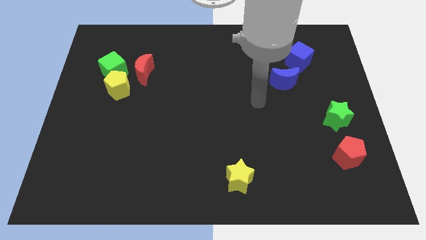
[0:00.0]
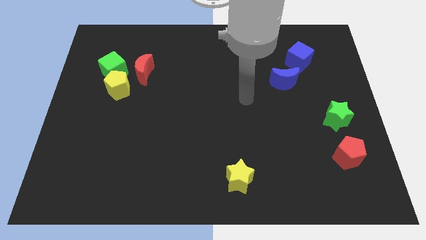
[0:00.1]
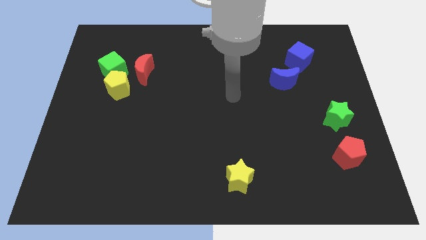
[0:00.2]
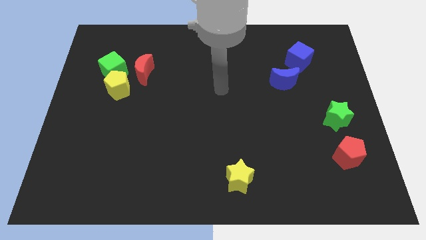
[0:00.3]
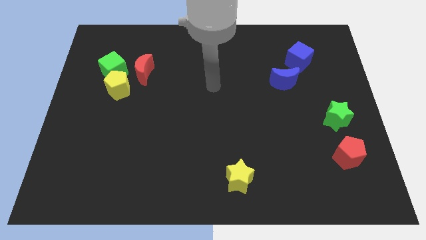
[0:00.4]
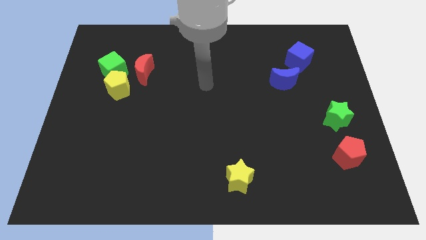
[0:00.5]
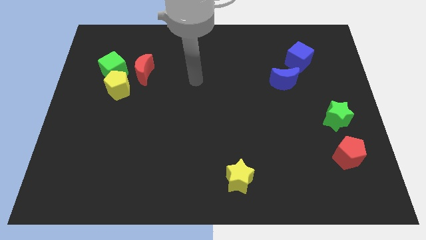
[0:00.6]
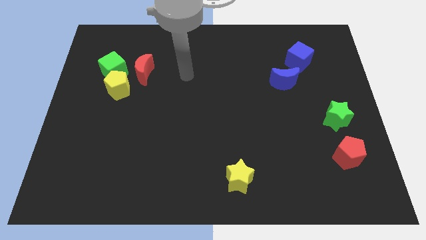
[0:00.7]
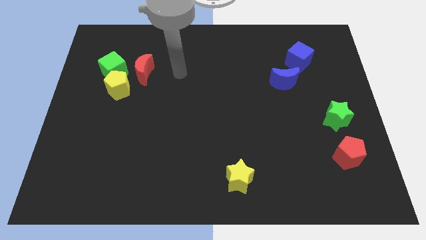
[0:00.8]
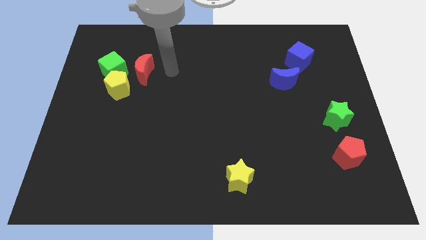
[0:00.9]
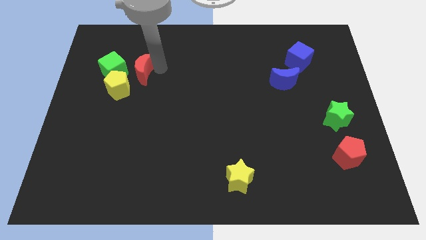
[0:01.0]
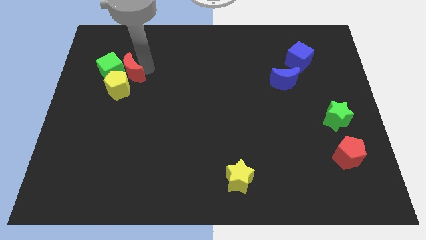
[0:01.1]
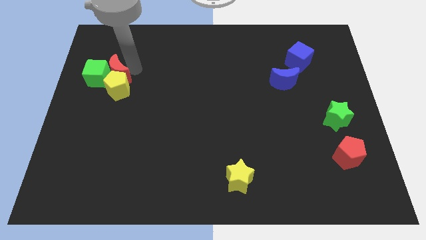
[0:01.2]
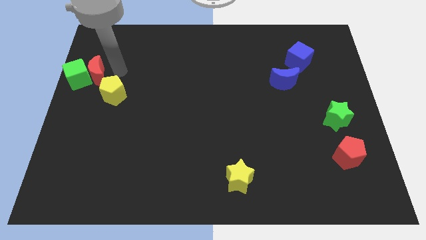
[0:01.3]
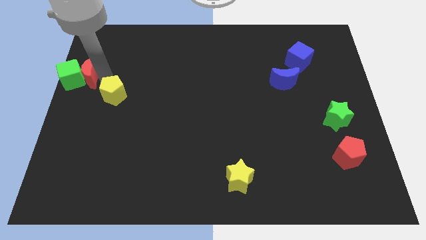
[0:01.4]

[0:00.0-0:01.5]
pull the yellow pentagon apart from the green cube and red moon

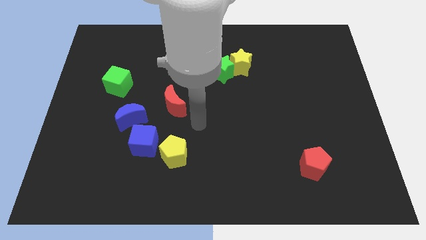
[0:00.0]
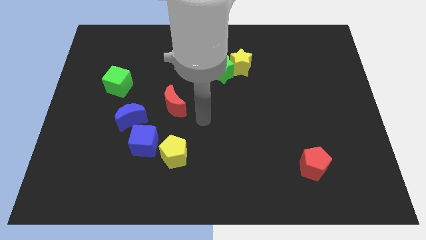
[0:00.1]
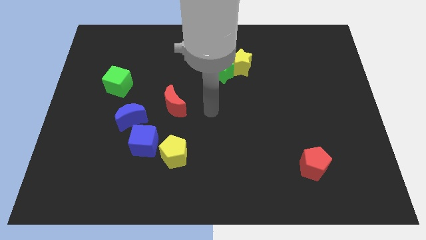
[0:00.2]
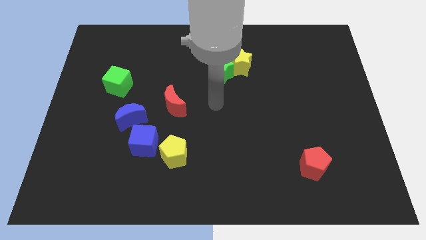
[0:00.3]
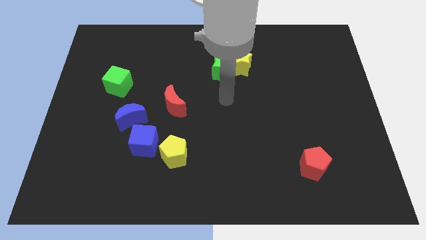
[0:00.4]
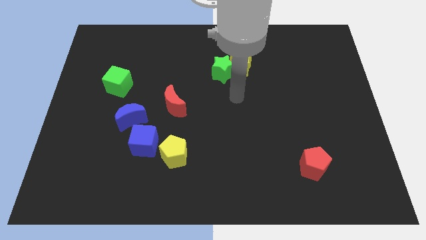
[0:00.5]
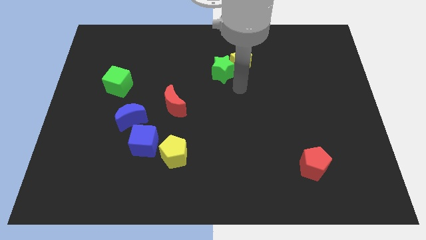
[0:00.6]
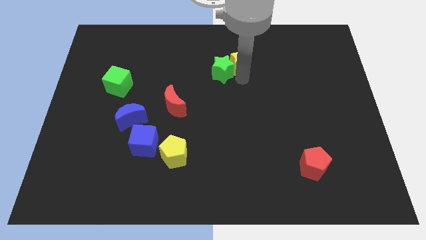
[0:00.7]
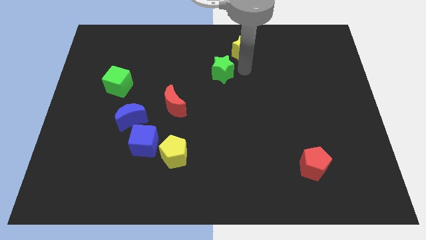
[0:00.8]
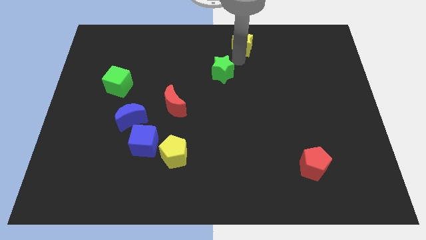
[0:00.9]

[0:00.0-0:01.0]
move the green star away from the yellow star

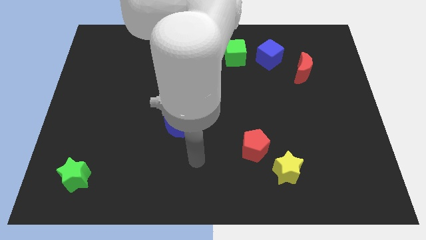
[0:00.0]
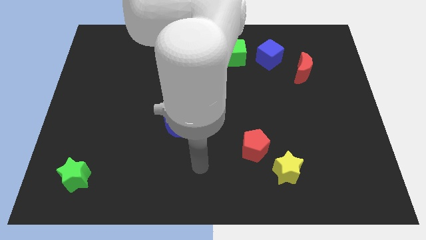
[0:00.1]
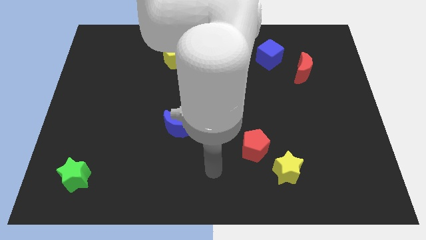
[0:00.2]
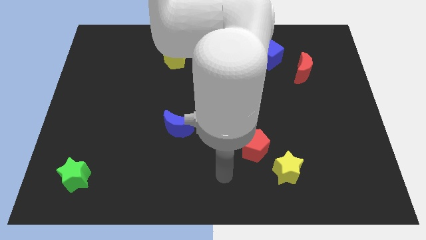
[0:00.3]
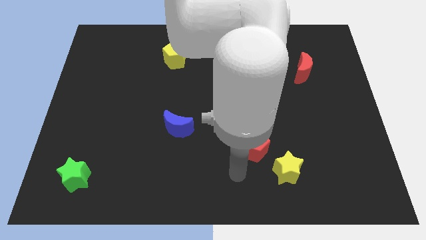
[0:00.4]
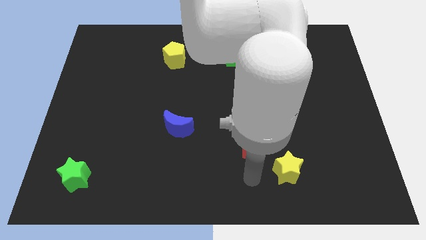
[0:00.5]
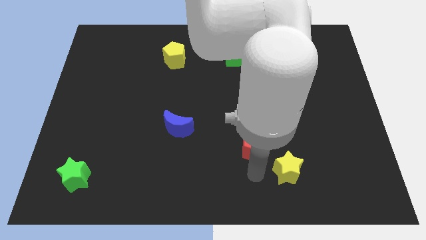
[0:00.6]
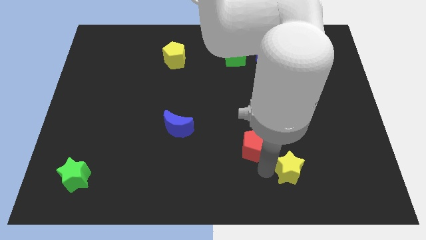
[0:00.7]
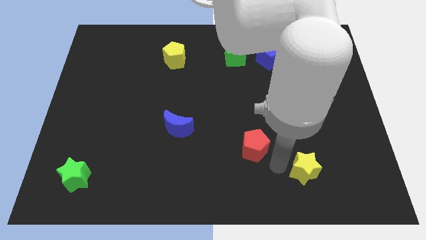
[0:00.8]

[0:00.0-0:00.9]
move the red pentagon away from the yellow star

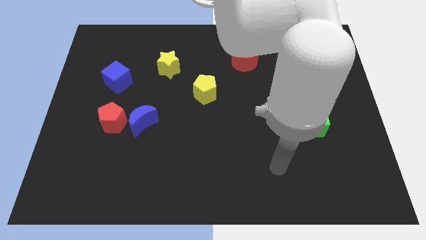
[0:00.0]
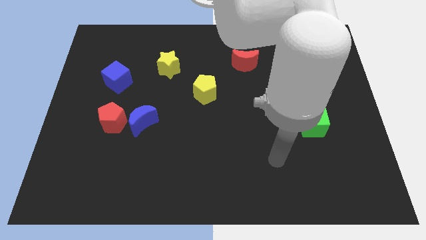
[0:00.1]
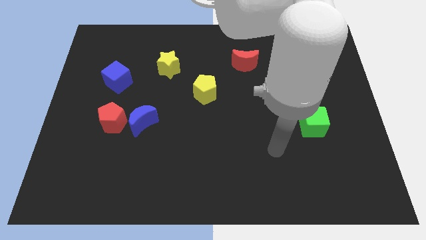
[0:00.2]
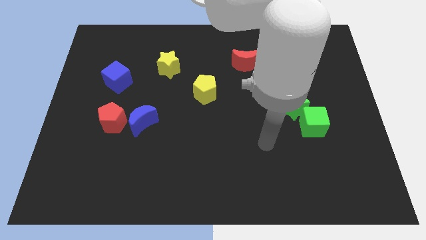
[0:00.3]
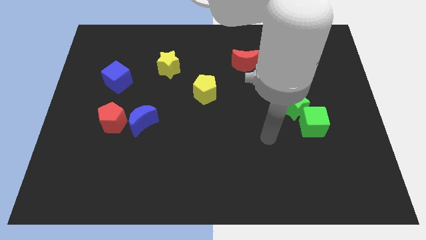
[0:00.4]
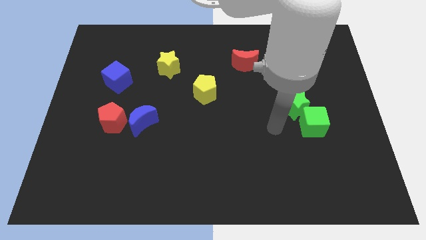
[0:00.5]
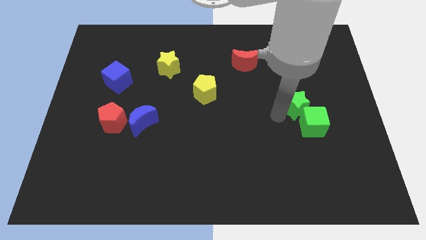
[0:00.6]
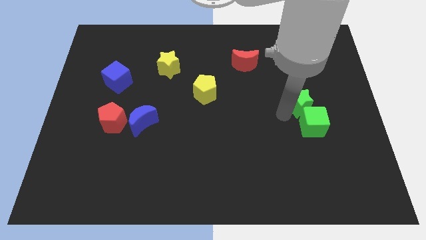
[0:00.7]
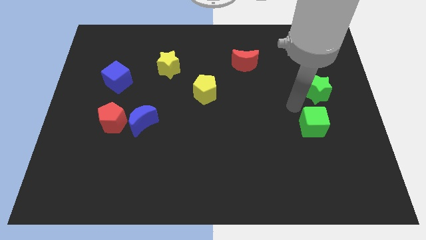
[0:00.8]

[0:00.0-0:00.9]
move the green cube away from the green star

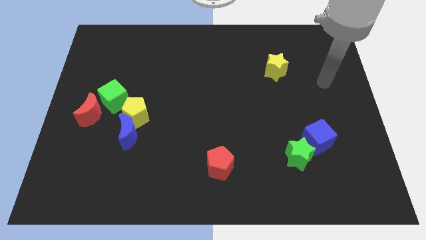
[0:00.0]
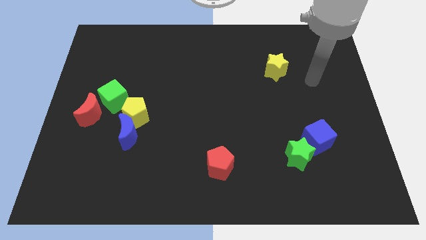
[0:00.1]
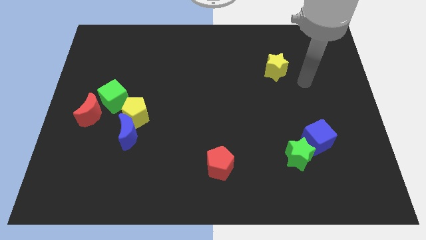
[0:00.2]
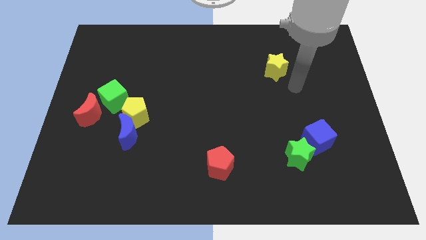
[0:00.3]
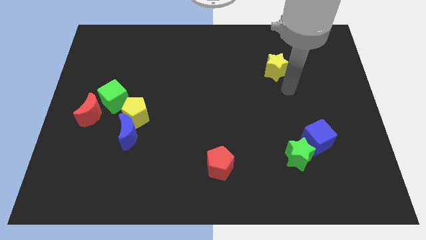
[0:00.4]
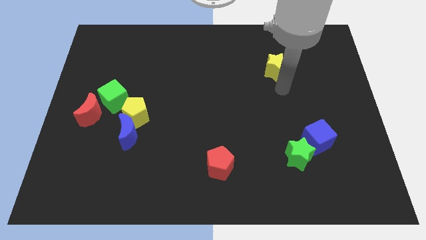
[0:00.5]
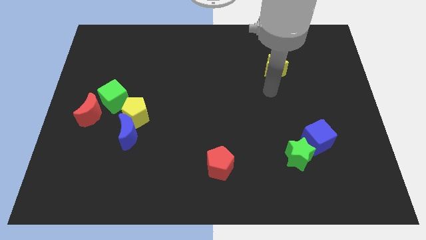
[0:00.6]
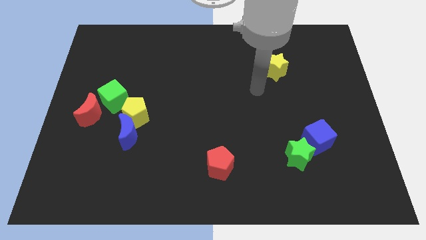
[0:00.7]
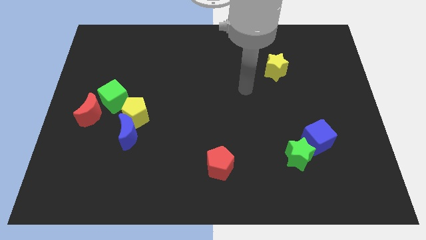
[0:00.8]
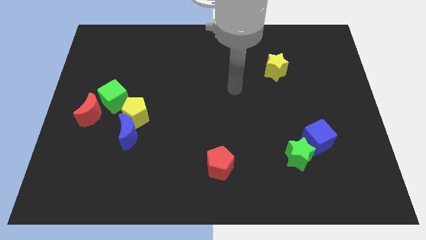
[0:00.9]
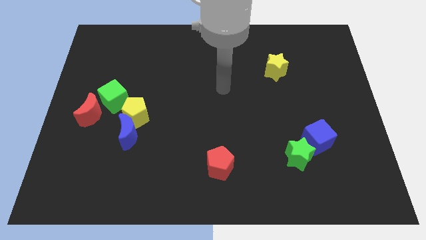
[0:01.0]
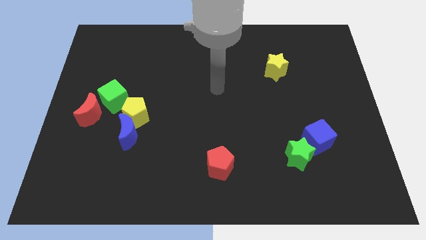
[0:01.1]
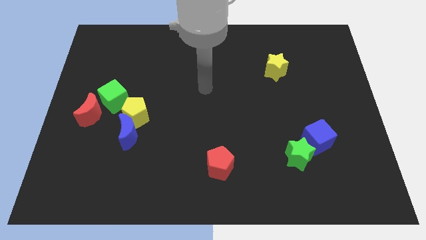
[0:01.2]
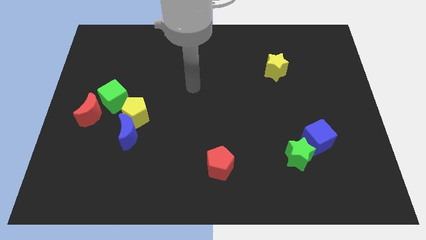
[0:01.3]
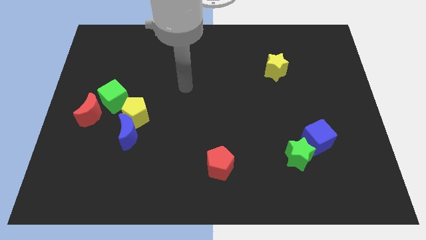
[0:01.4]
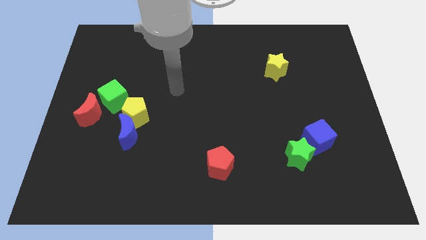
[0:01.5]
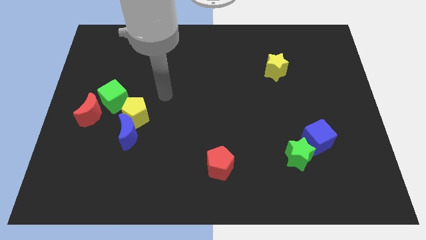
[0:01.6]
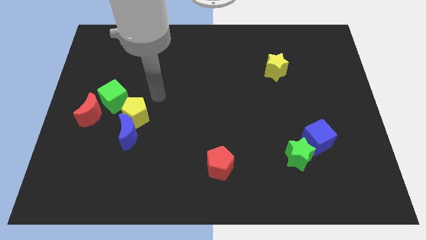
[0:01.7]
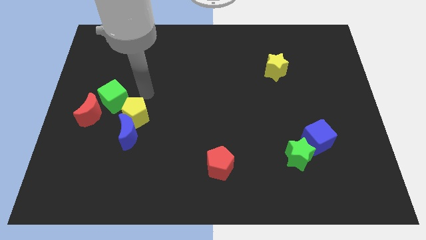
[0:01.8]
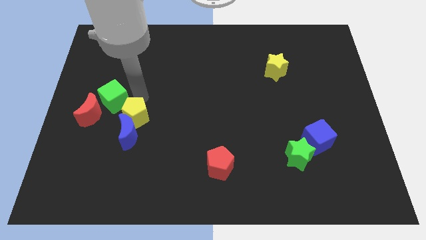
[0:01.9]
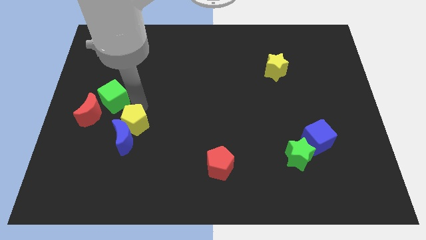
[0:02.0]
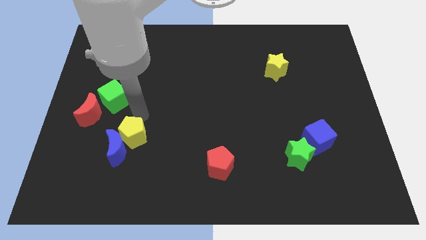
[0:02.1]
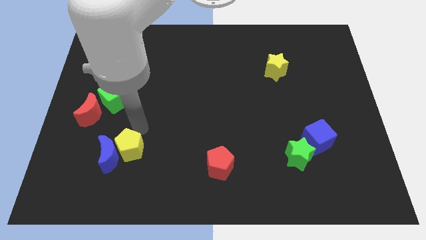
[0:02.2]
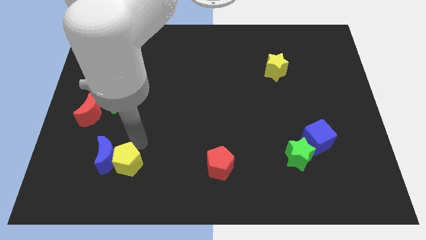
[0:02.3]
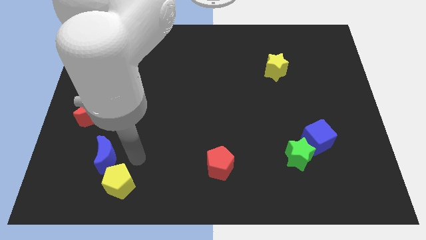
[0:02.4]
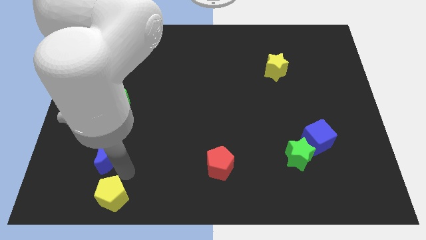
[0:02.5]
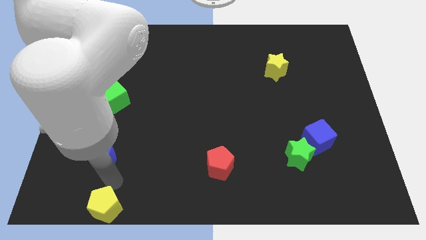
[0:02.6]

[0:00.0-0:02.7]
separate the blue moon from the yellow pentagon

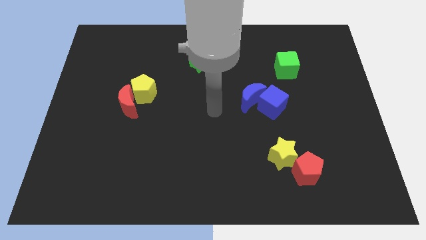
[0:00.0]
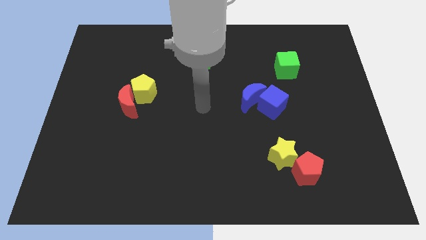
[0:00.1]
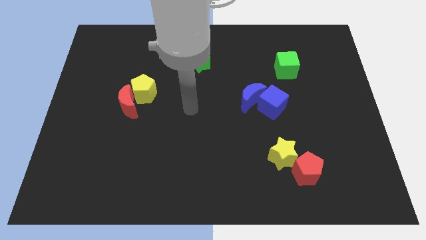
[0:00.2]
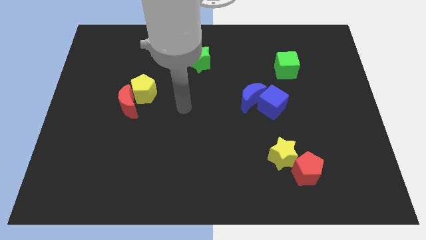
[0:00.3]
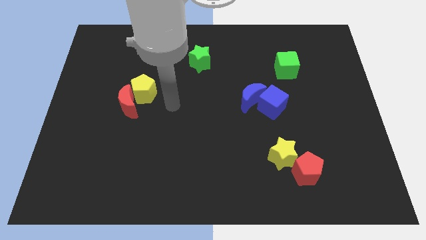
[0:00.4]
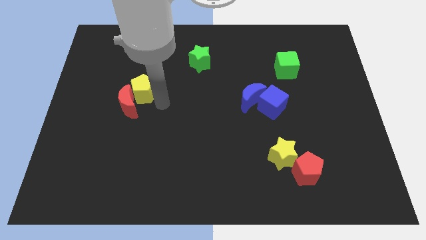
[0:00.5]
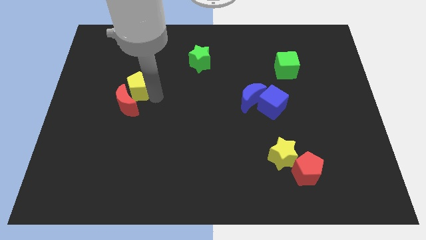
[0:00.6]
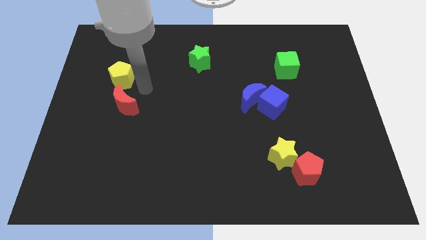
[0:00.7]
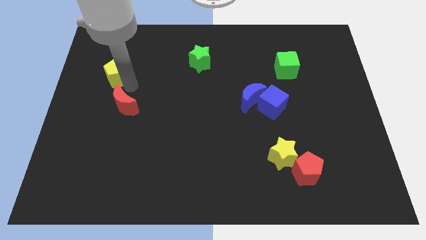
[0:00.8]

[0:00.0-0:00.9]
pull the red moon apart from the yellow pentagon

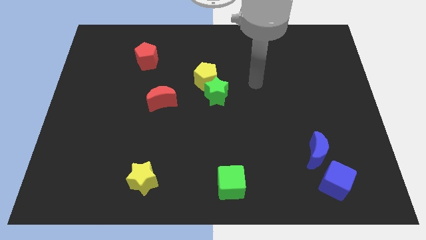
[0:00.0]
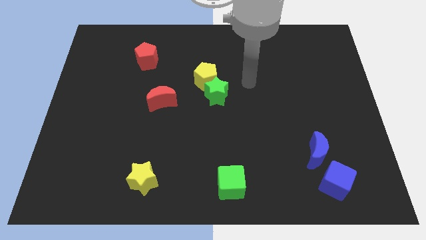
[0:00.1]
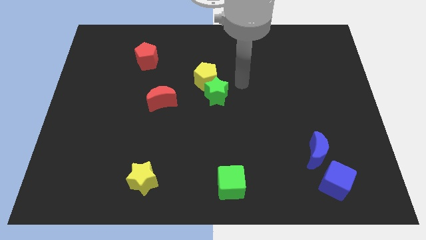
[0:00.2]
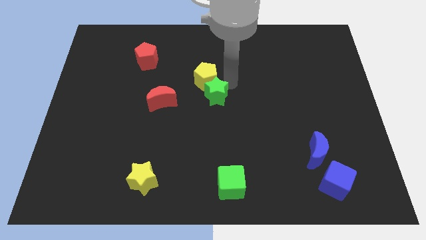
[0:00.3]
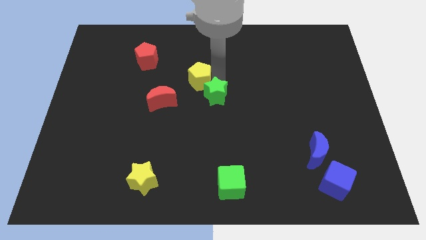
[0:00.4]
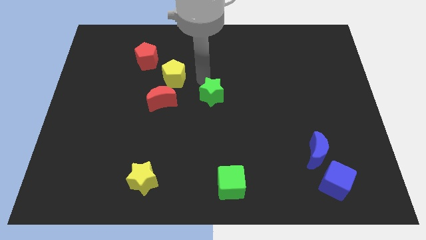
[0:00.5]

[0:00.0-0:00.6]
pull the green star apart from the yellow pentagon

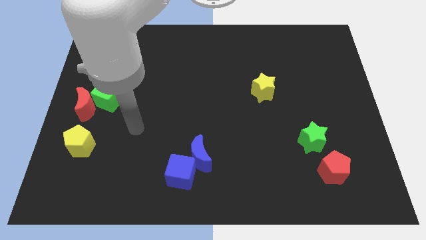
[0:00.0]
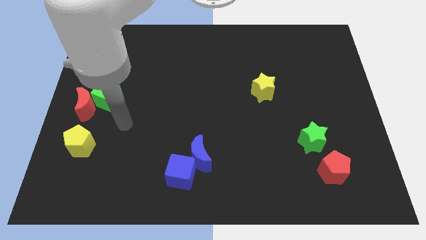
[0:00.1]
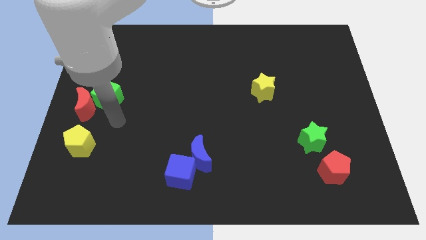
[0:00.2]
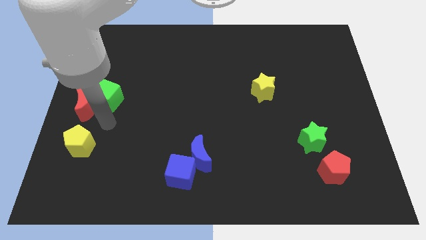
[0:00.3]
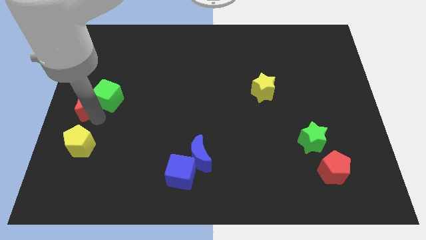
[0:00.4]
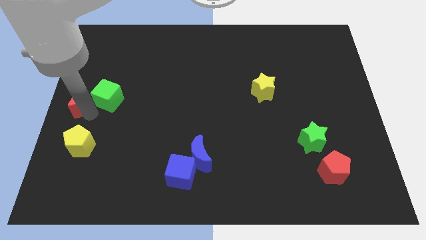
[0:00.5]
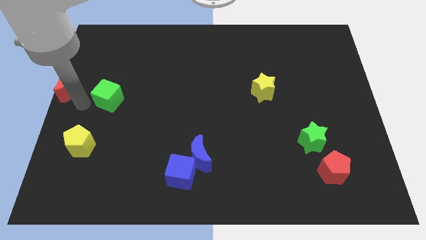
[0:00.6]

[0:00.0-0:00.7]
pull the green cube apart from the red moon

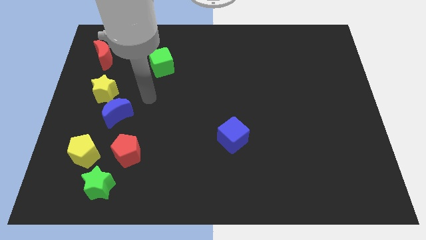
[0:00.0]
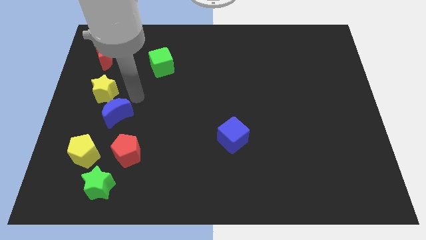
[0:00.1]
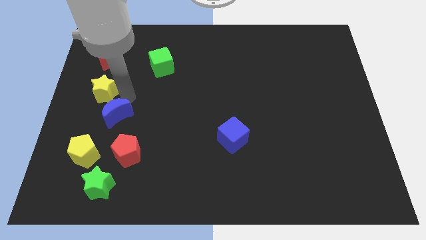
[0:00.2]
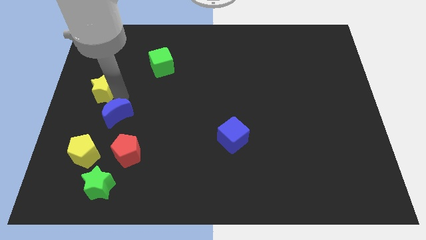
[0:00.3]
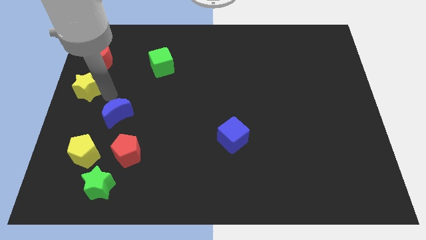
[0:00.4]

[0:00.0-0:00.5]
move the blue moon away from the yellow star
